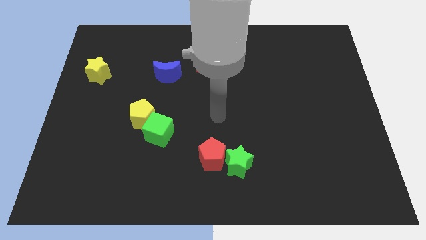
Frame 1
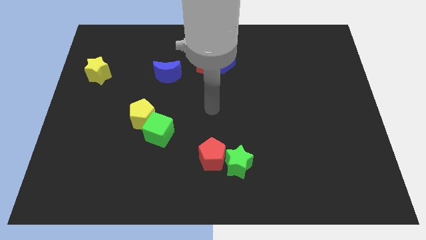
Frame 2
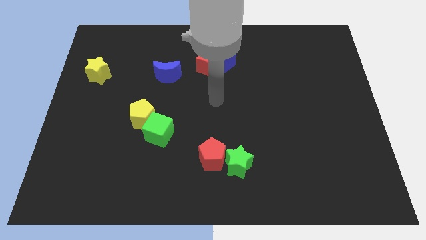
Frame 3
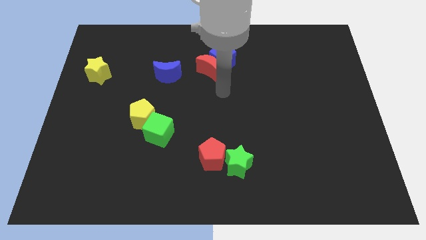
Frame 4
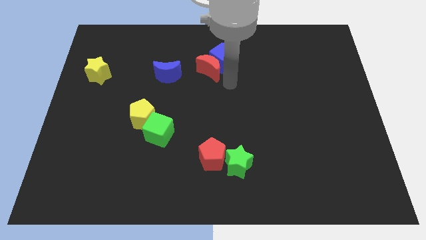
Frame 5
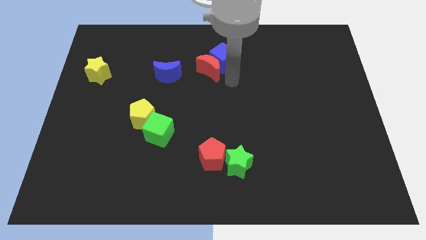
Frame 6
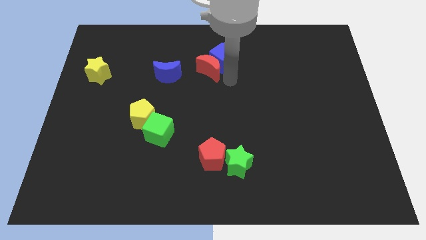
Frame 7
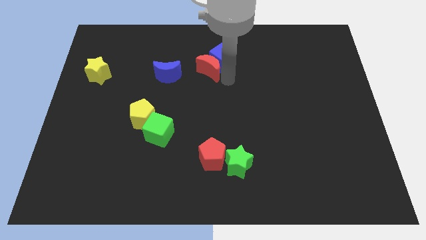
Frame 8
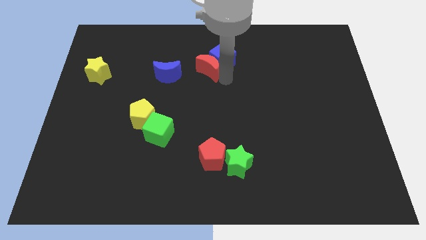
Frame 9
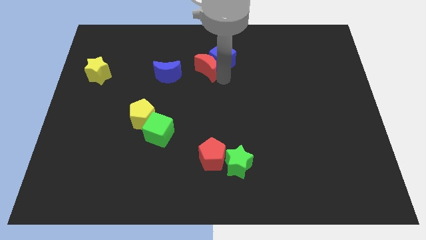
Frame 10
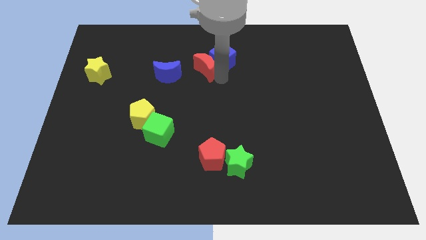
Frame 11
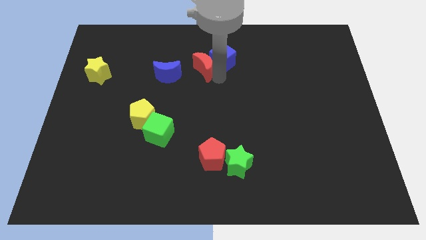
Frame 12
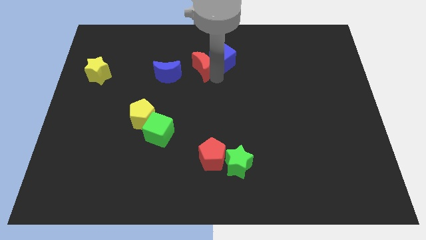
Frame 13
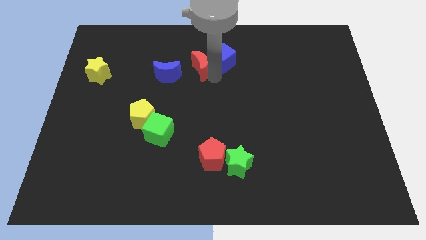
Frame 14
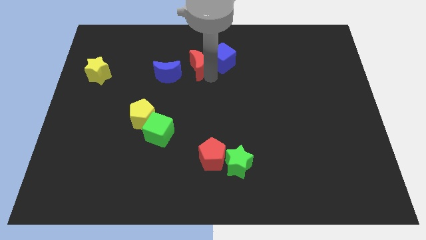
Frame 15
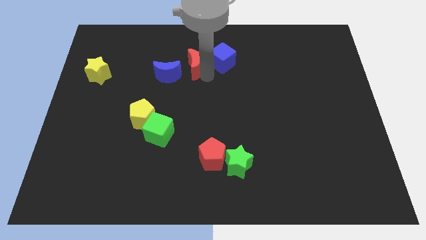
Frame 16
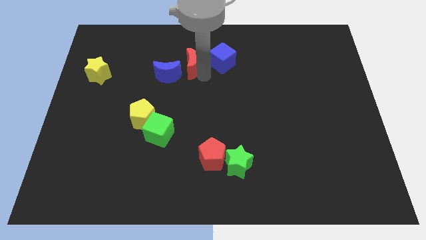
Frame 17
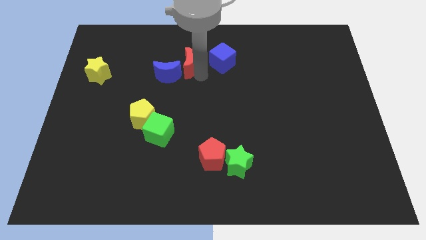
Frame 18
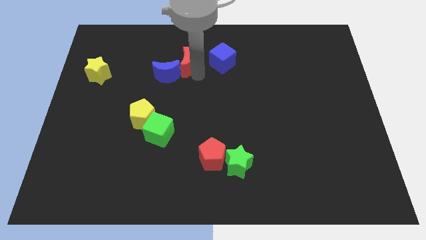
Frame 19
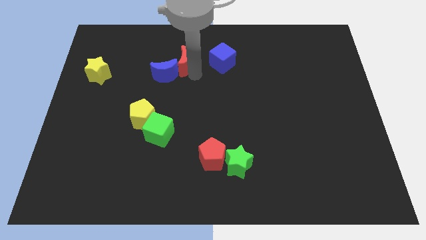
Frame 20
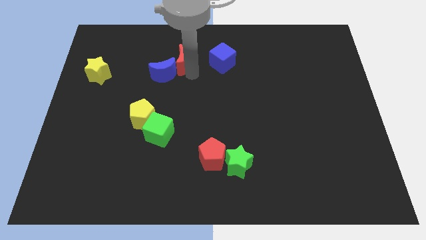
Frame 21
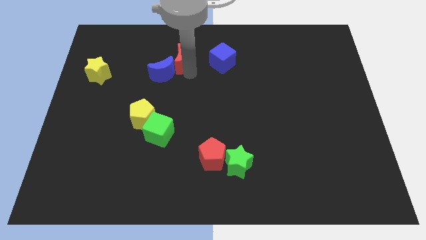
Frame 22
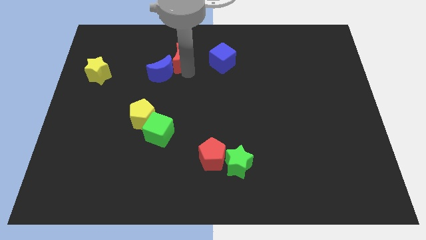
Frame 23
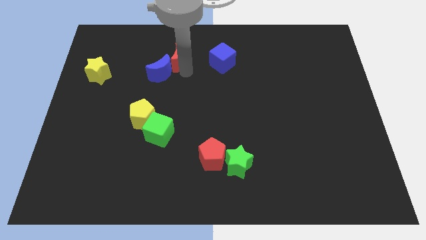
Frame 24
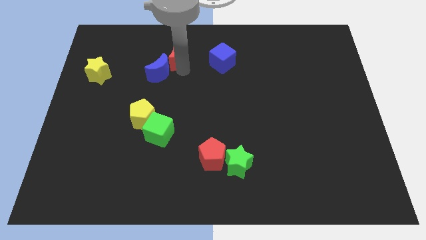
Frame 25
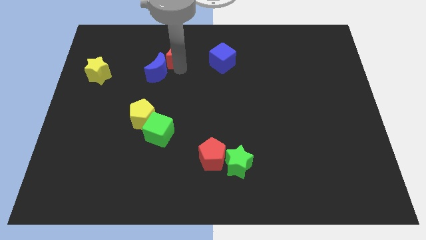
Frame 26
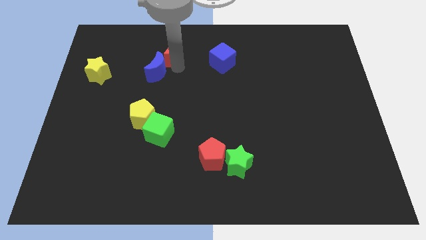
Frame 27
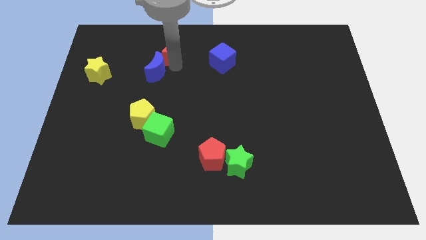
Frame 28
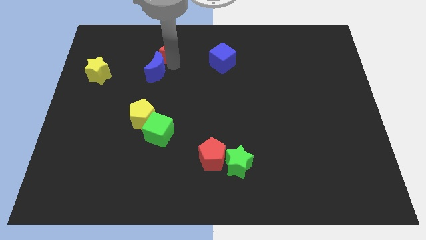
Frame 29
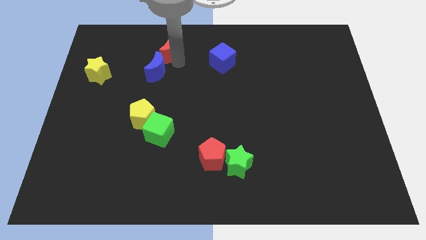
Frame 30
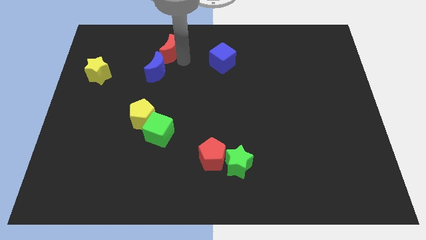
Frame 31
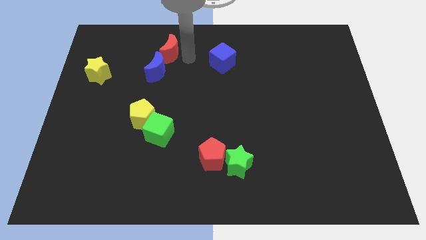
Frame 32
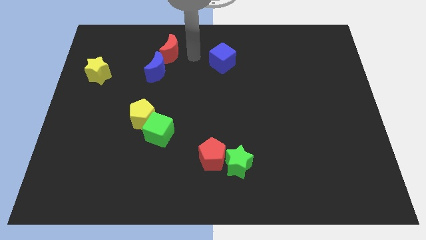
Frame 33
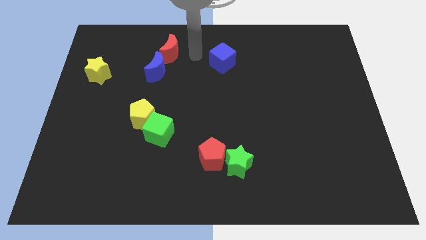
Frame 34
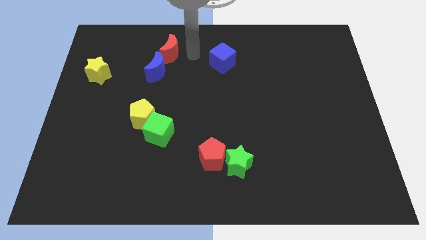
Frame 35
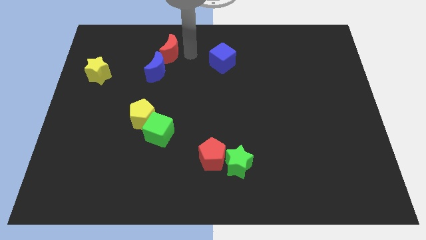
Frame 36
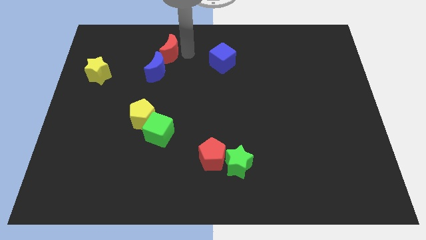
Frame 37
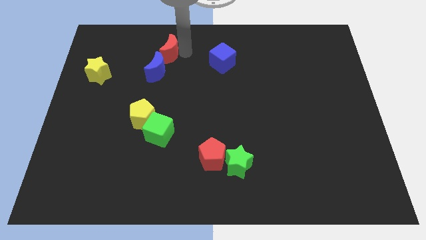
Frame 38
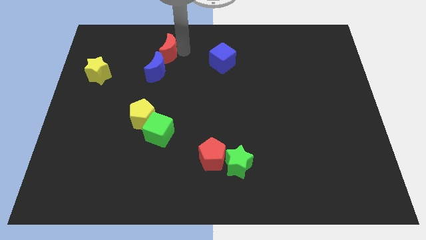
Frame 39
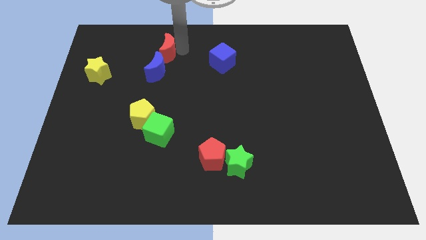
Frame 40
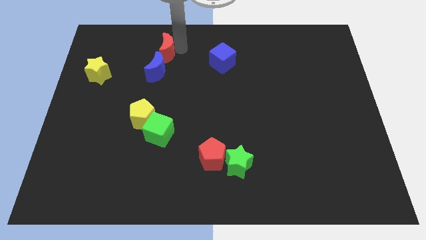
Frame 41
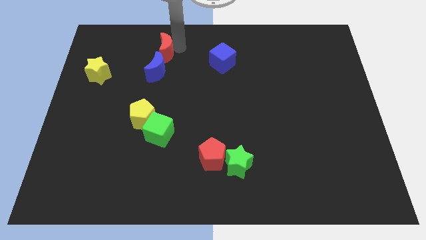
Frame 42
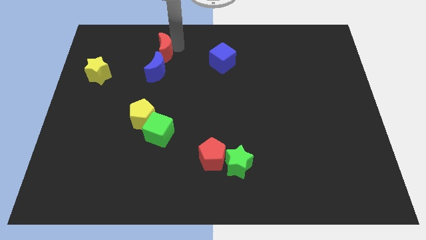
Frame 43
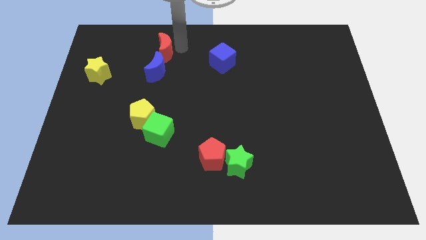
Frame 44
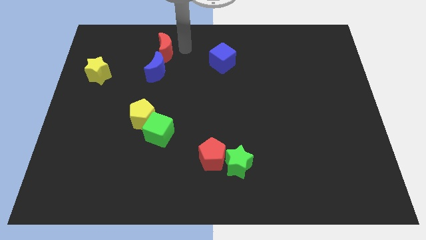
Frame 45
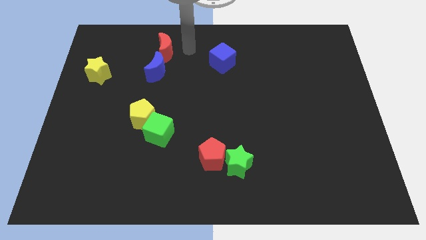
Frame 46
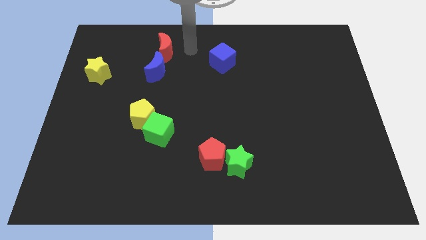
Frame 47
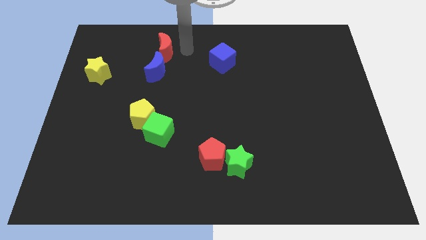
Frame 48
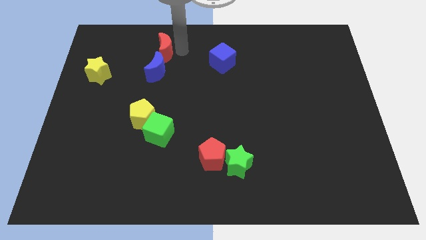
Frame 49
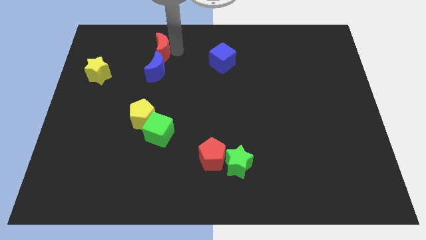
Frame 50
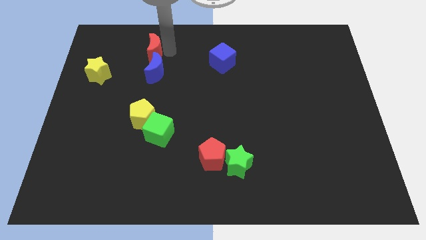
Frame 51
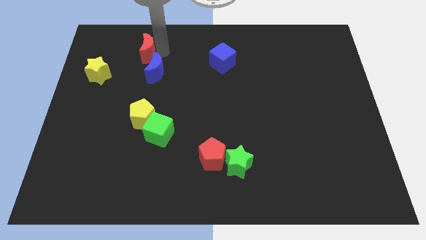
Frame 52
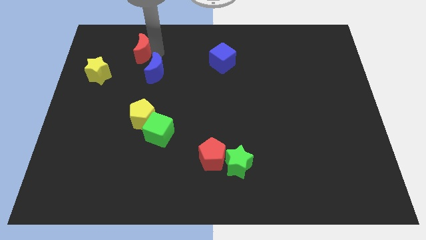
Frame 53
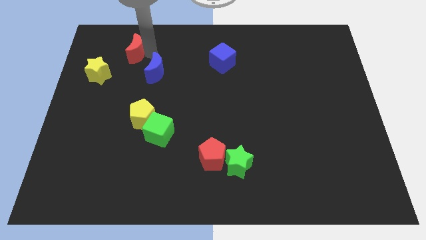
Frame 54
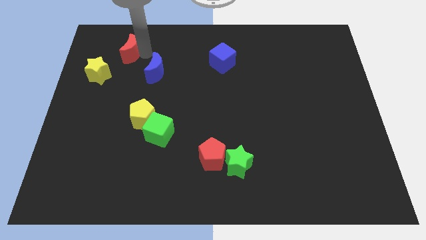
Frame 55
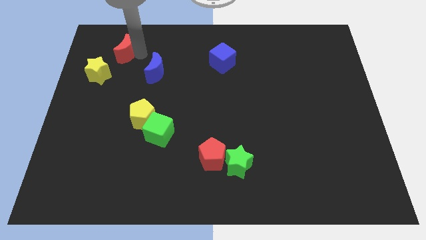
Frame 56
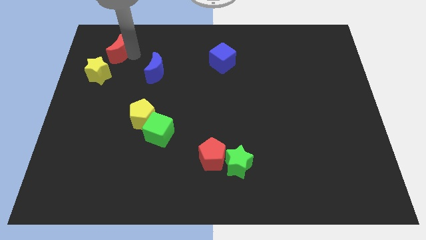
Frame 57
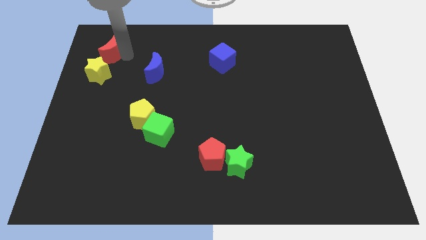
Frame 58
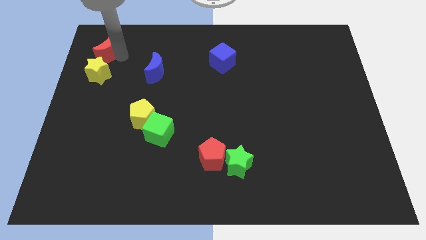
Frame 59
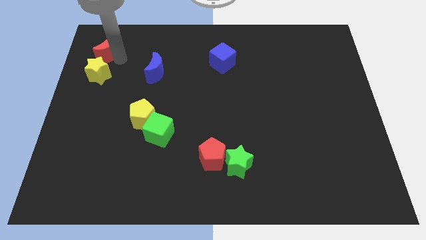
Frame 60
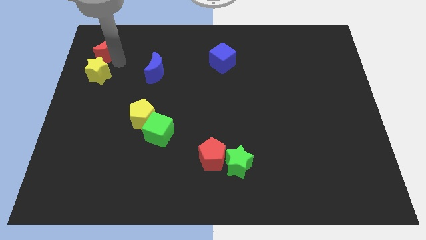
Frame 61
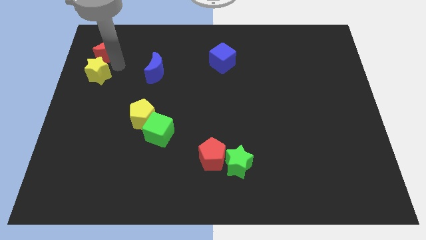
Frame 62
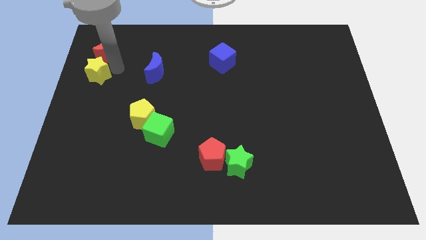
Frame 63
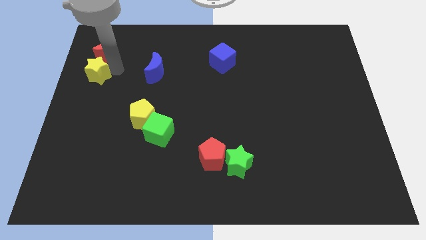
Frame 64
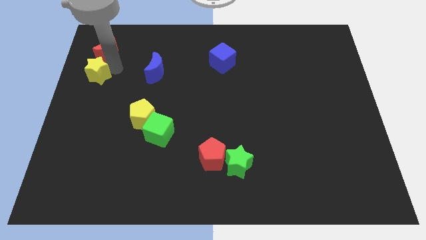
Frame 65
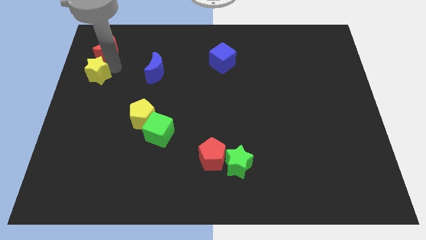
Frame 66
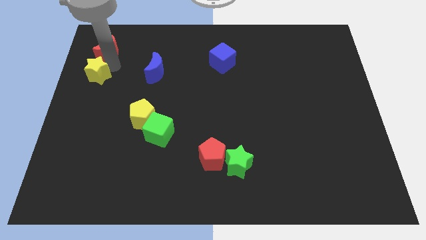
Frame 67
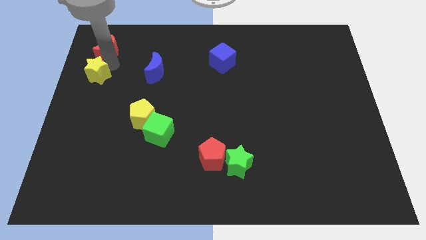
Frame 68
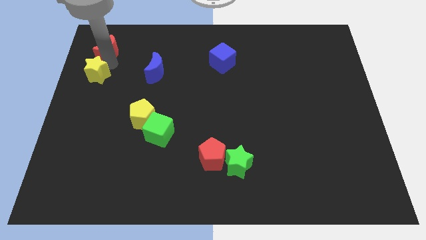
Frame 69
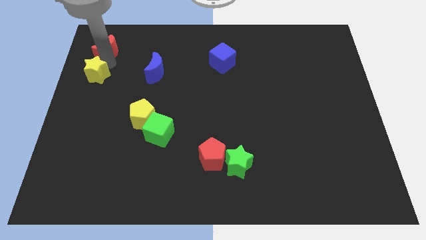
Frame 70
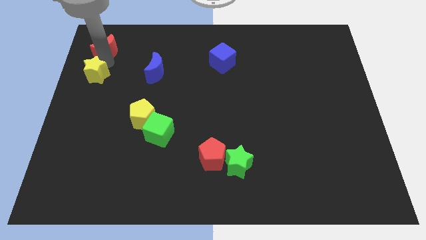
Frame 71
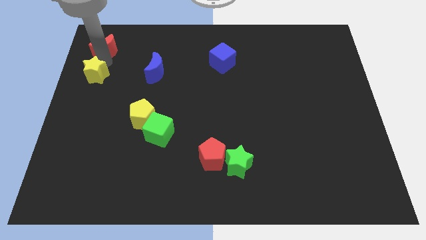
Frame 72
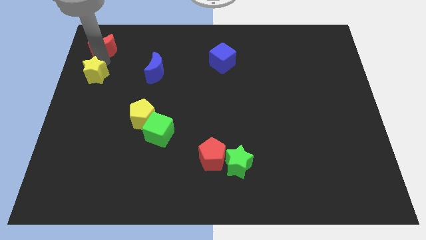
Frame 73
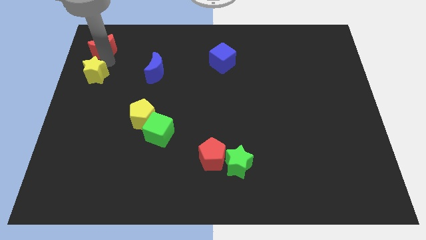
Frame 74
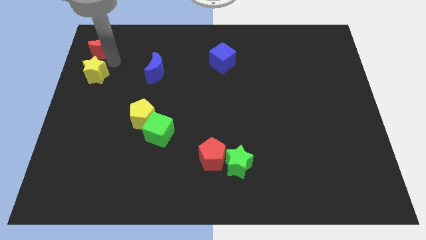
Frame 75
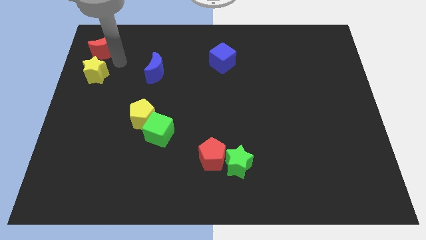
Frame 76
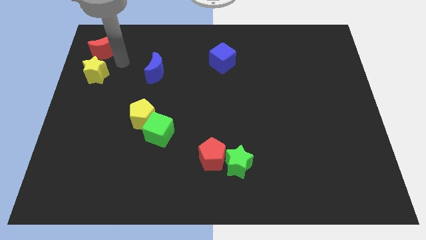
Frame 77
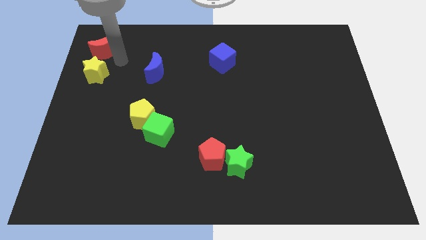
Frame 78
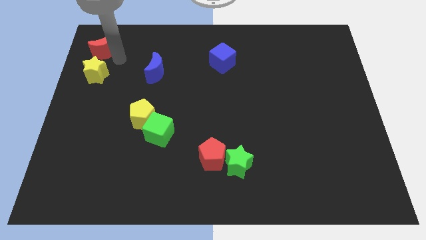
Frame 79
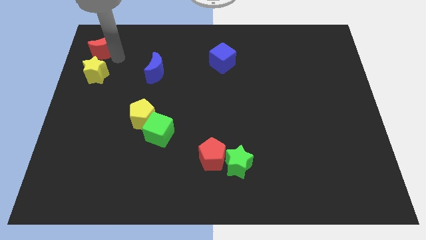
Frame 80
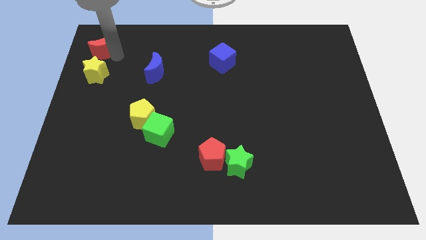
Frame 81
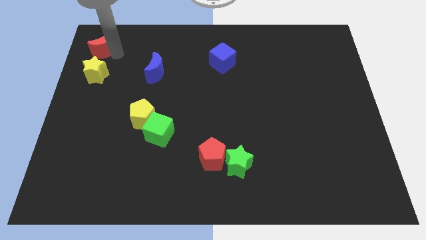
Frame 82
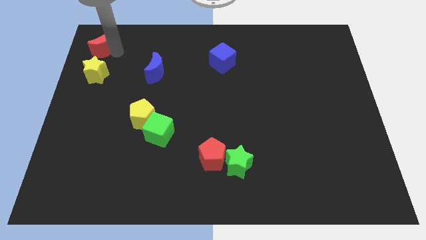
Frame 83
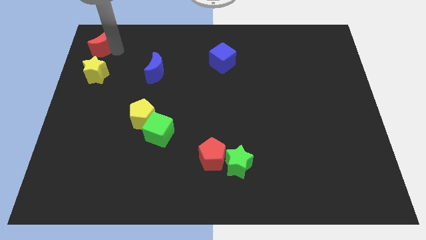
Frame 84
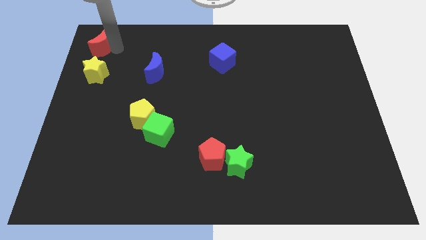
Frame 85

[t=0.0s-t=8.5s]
put the red moon to the upper left corner
